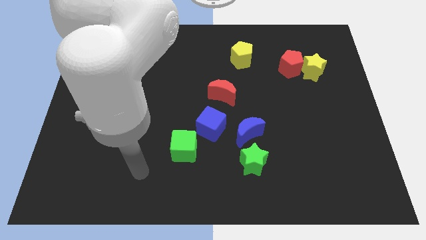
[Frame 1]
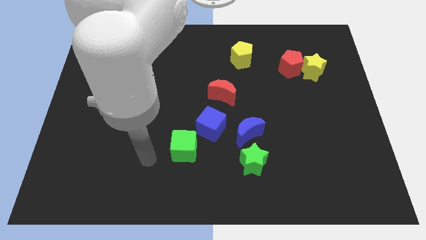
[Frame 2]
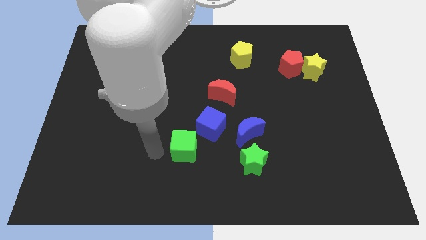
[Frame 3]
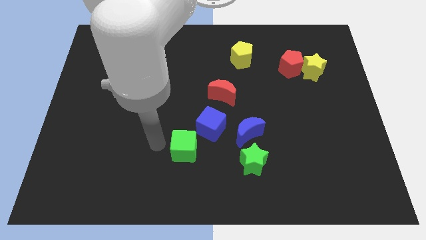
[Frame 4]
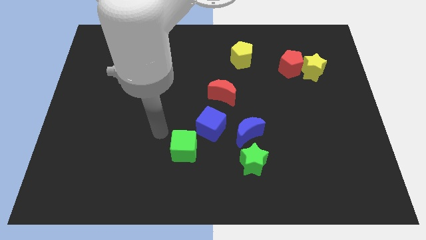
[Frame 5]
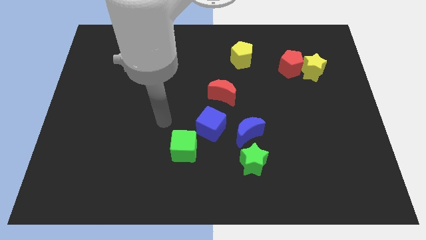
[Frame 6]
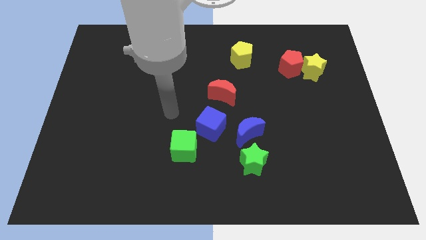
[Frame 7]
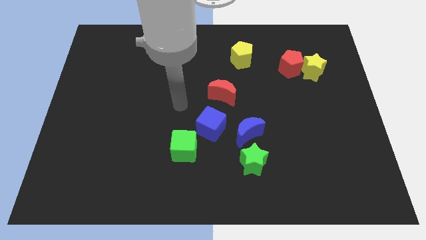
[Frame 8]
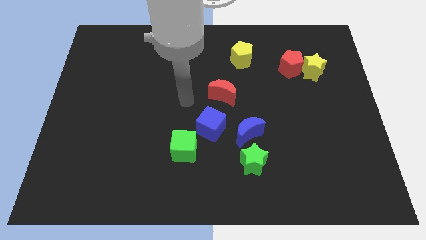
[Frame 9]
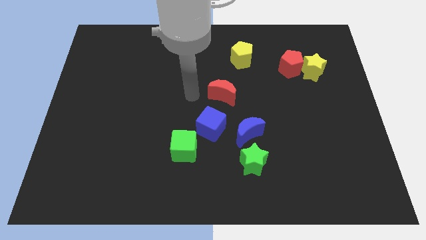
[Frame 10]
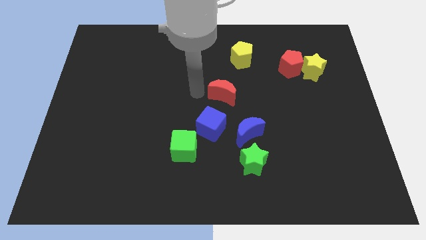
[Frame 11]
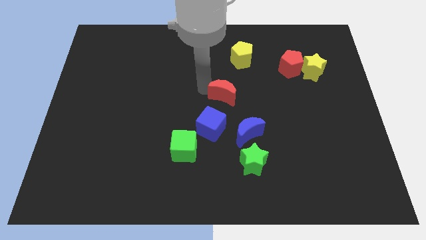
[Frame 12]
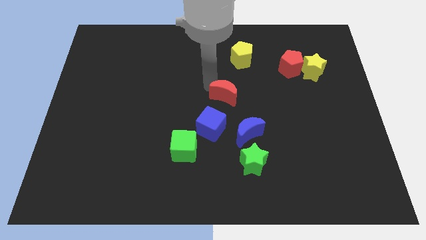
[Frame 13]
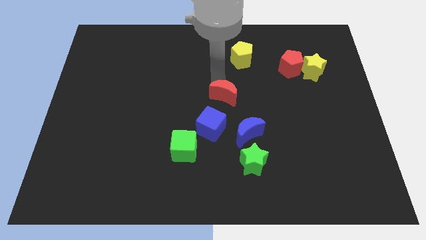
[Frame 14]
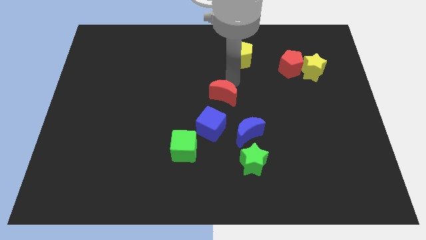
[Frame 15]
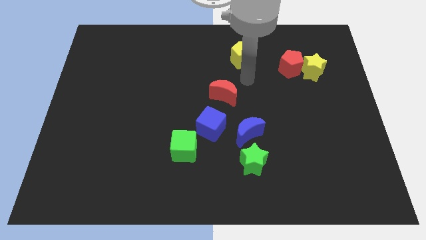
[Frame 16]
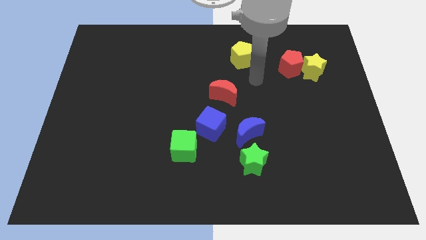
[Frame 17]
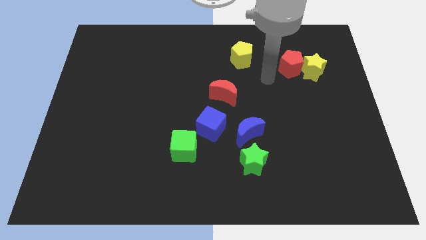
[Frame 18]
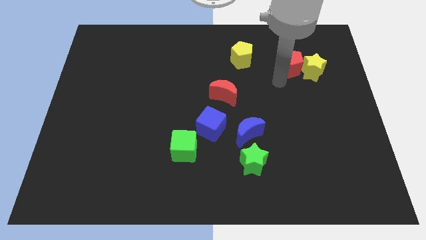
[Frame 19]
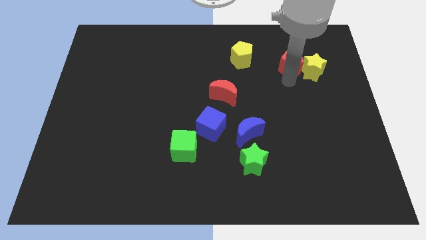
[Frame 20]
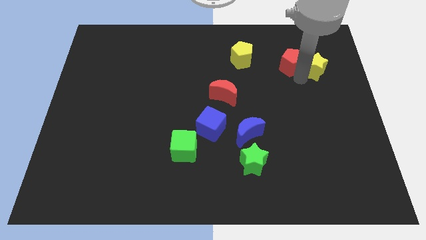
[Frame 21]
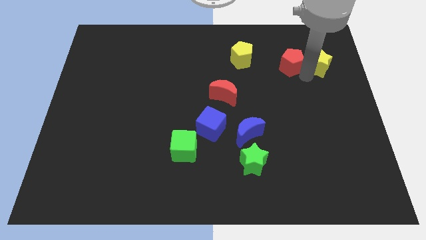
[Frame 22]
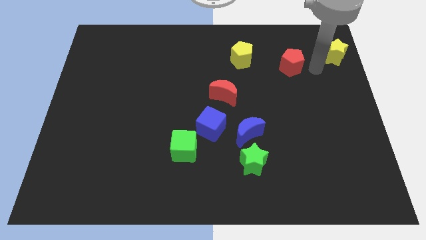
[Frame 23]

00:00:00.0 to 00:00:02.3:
move the red pentagon away from the yellow star

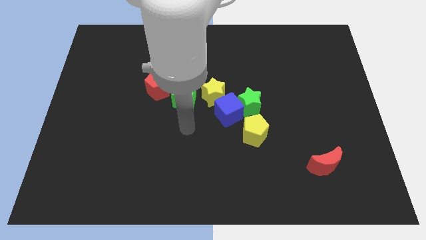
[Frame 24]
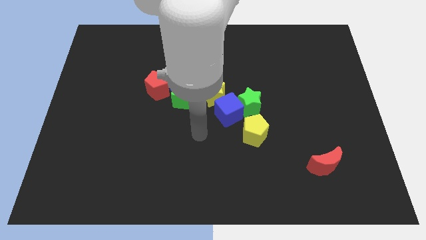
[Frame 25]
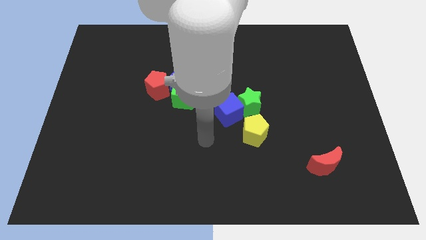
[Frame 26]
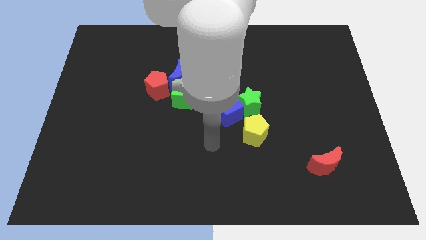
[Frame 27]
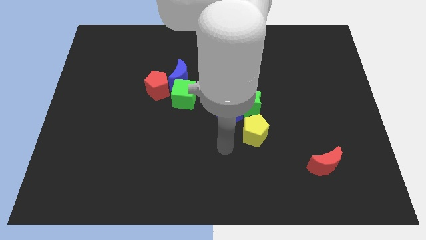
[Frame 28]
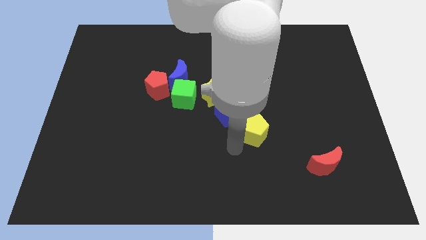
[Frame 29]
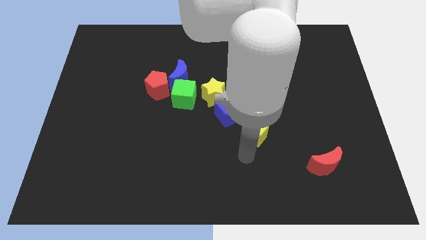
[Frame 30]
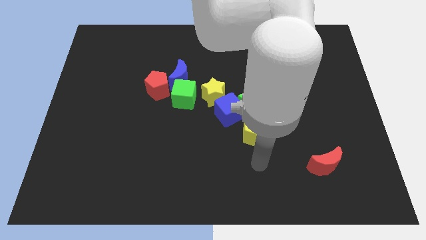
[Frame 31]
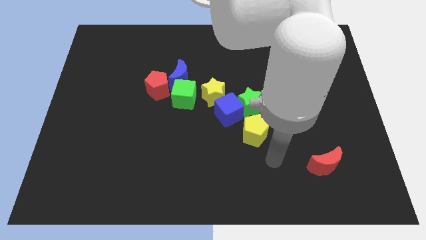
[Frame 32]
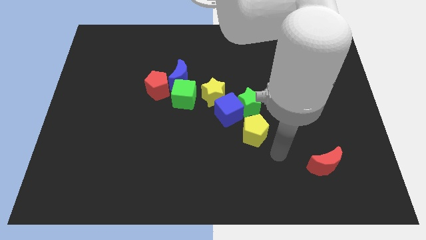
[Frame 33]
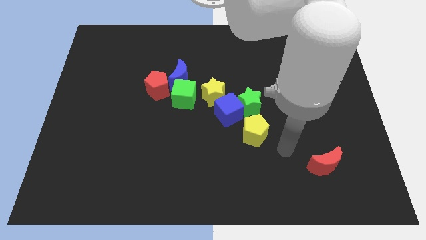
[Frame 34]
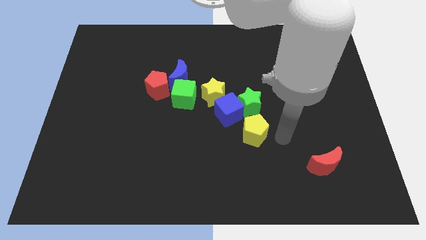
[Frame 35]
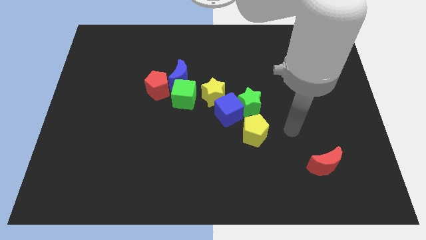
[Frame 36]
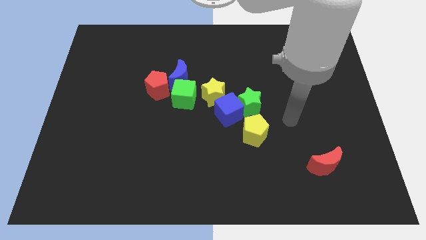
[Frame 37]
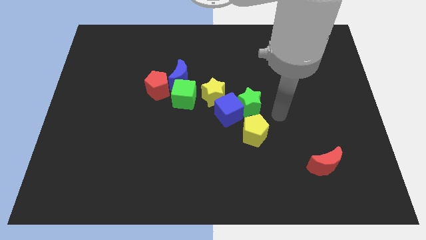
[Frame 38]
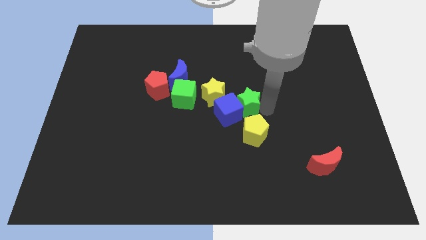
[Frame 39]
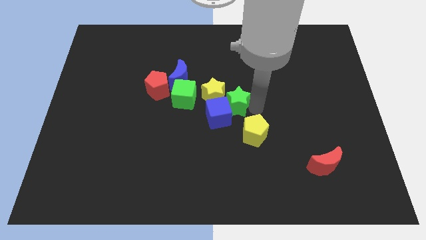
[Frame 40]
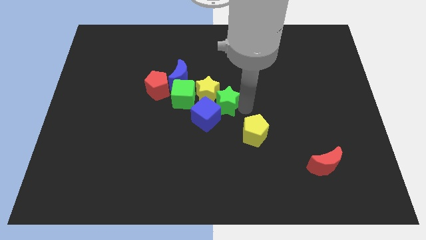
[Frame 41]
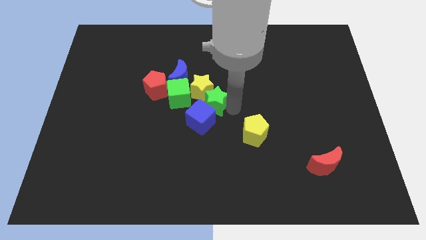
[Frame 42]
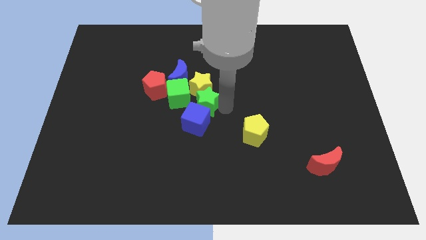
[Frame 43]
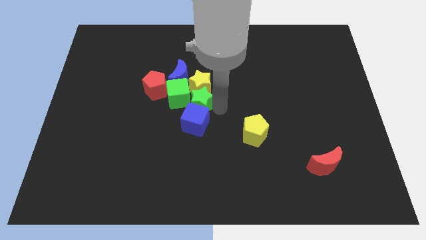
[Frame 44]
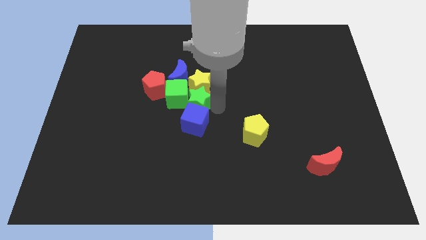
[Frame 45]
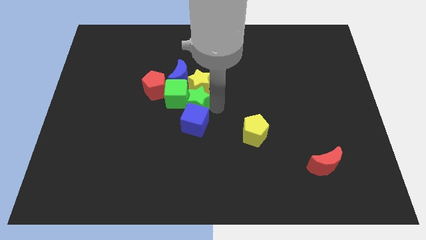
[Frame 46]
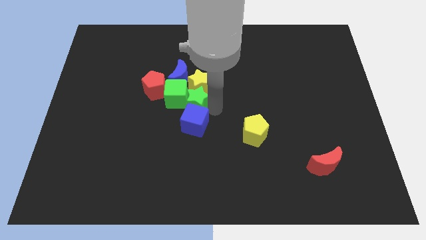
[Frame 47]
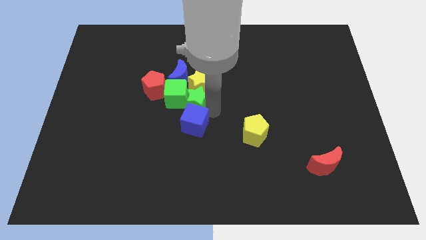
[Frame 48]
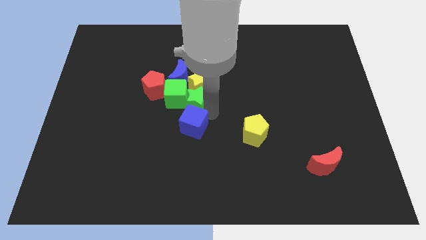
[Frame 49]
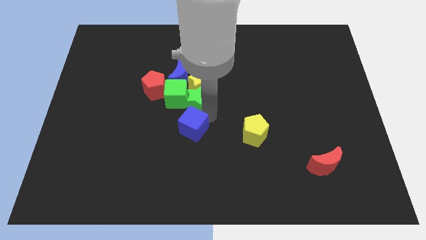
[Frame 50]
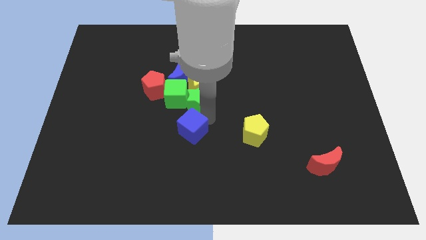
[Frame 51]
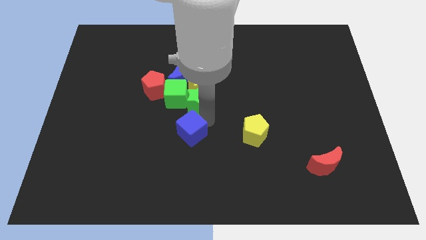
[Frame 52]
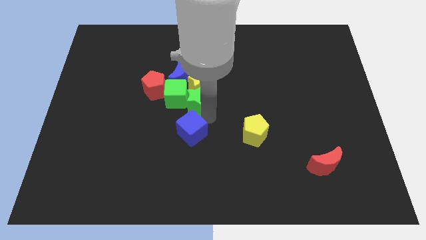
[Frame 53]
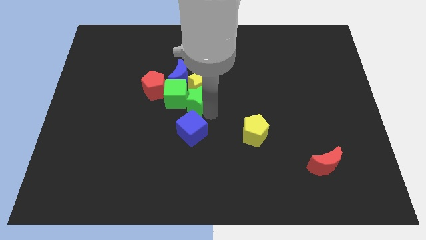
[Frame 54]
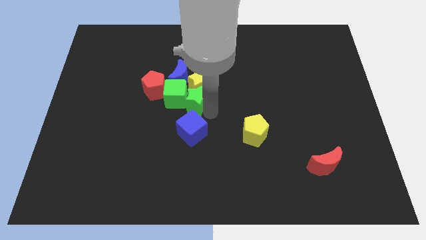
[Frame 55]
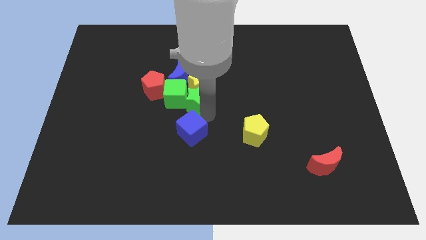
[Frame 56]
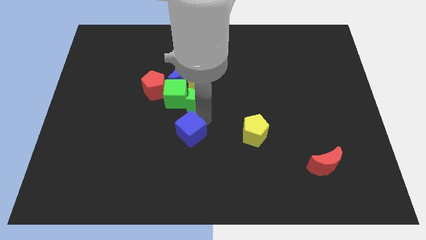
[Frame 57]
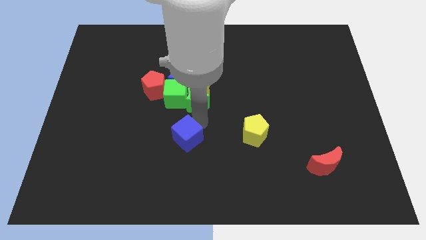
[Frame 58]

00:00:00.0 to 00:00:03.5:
move the blue cube away from the green star, yellow star, and yellow pentagon

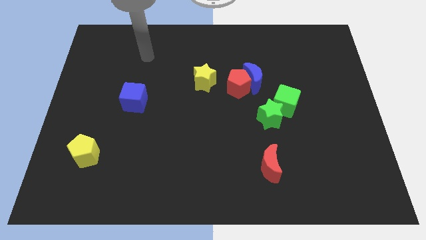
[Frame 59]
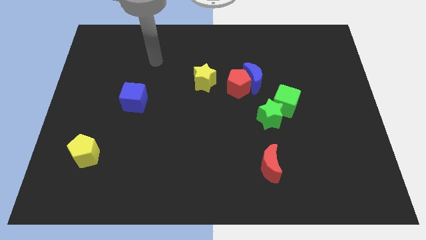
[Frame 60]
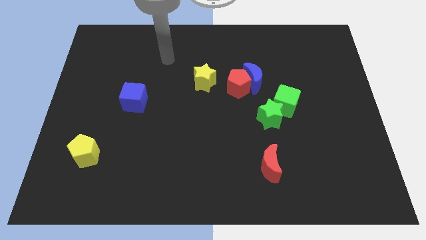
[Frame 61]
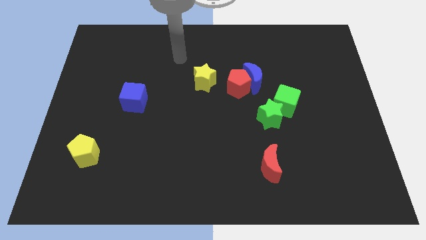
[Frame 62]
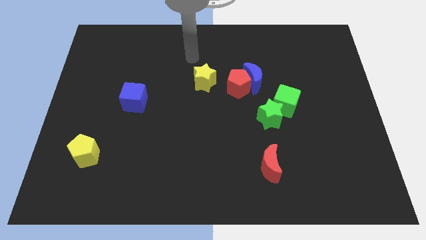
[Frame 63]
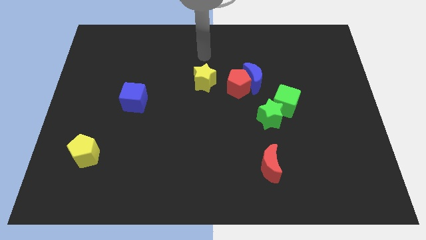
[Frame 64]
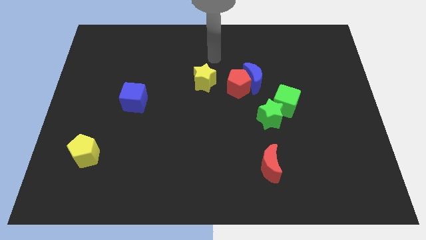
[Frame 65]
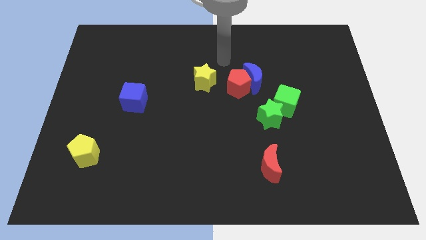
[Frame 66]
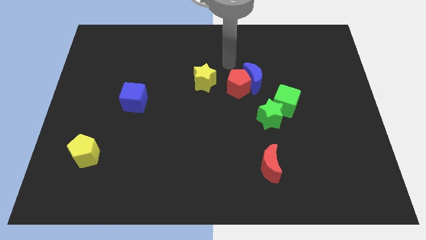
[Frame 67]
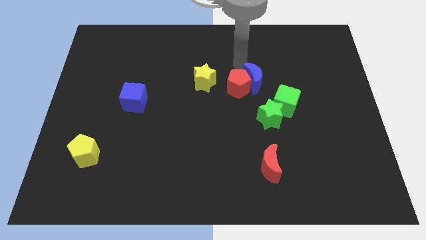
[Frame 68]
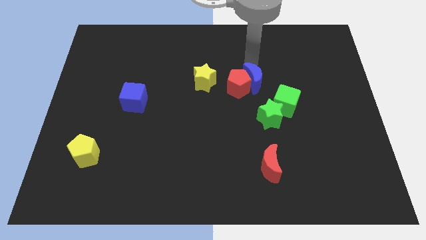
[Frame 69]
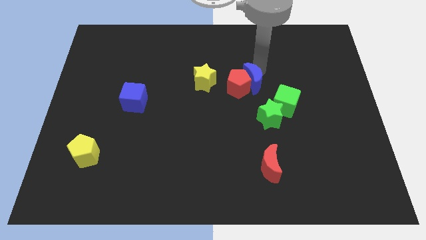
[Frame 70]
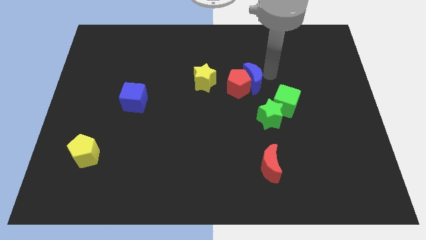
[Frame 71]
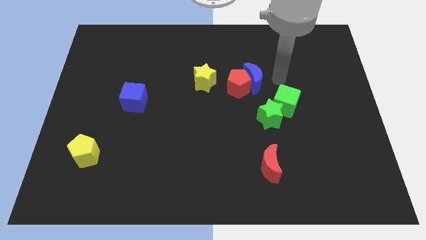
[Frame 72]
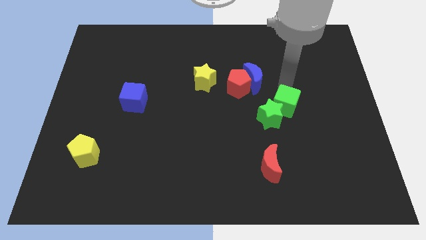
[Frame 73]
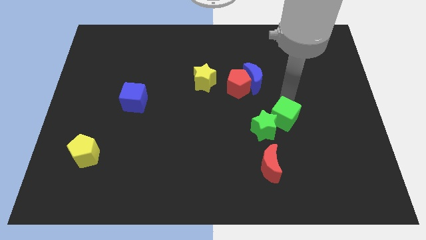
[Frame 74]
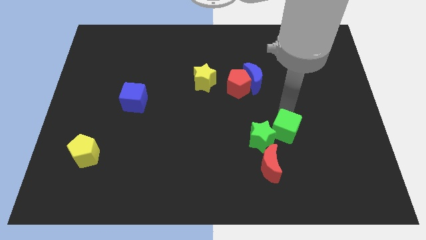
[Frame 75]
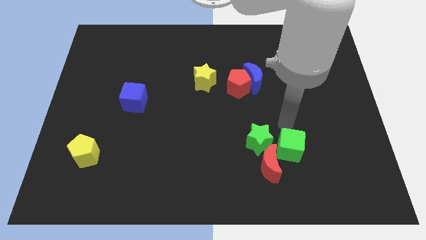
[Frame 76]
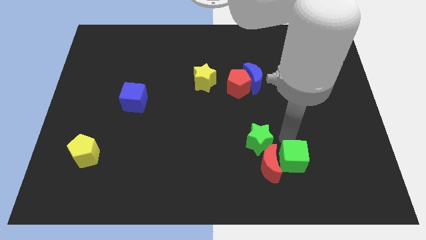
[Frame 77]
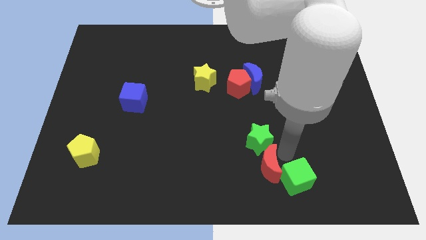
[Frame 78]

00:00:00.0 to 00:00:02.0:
move the green star away from the green cube

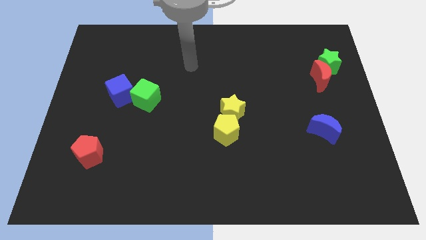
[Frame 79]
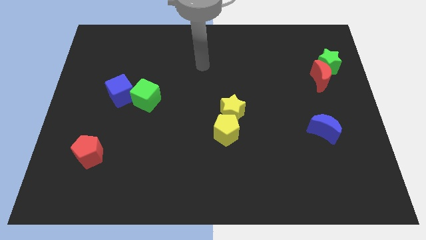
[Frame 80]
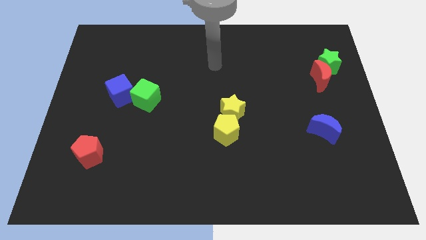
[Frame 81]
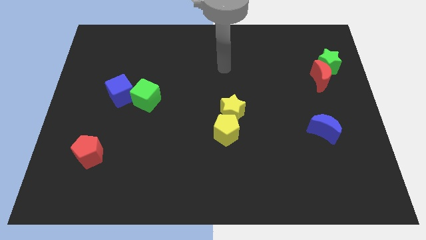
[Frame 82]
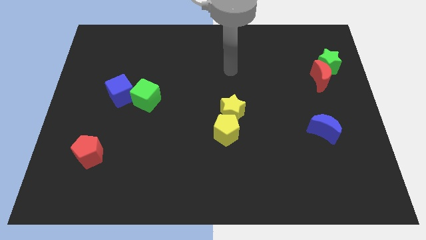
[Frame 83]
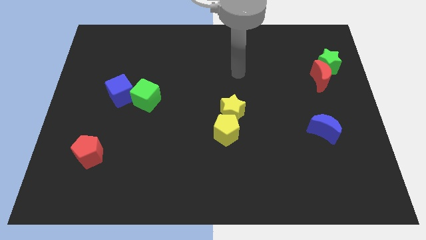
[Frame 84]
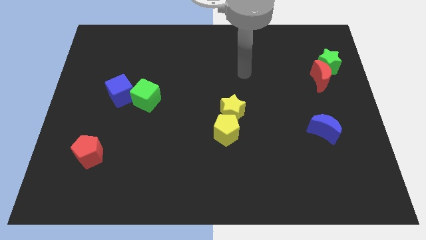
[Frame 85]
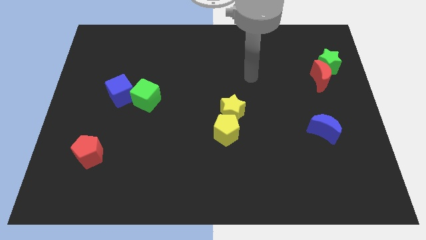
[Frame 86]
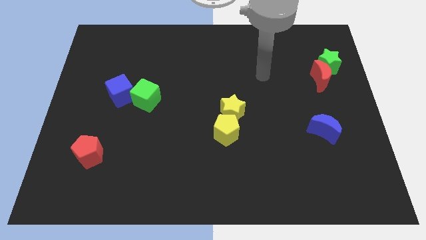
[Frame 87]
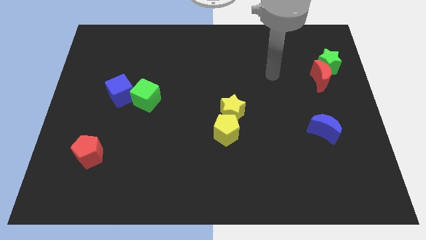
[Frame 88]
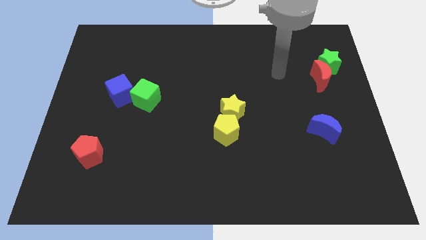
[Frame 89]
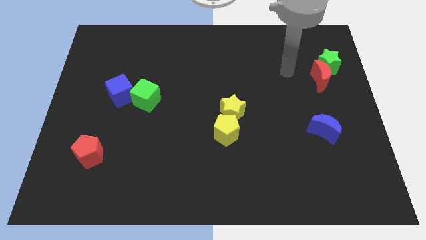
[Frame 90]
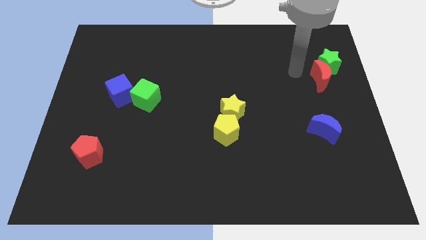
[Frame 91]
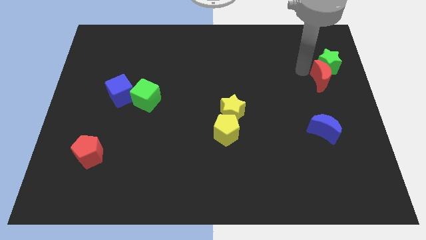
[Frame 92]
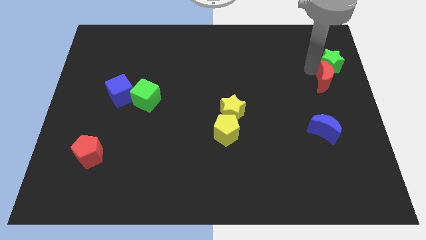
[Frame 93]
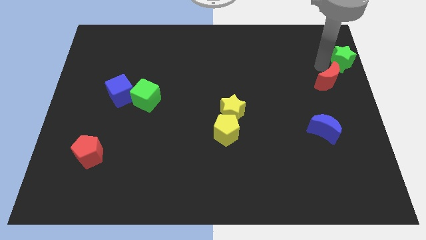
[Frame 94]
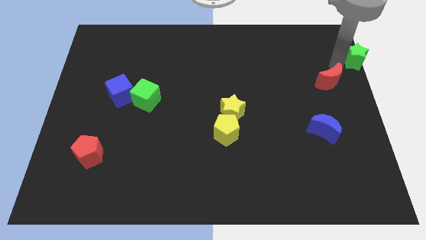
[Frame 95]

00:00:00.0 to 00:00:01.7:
move the red moon away from the green star
